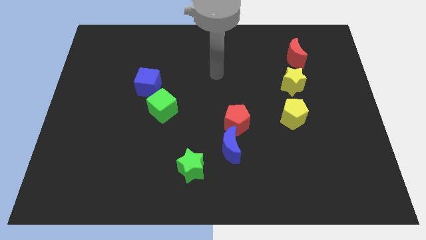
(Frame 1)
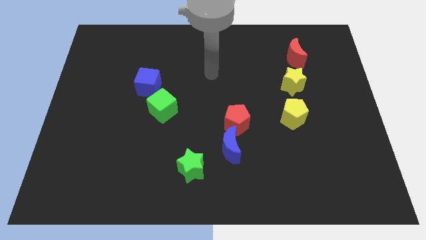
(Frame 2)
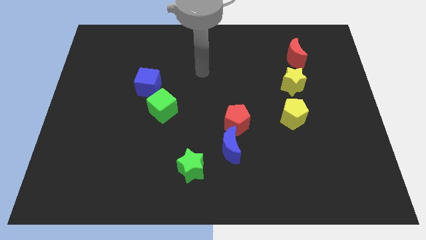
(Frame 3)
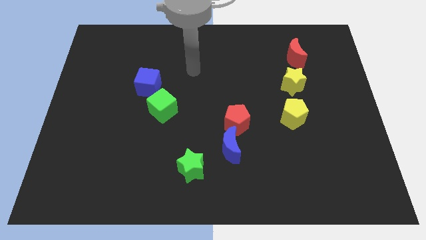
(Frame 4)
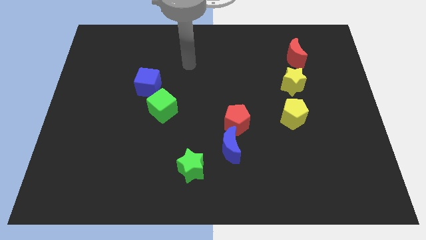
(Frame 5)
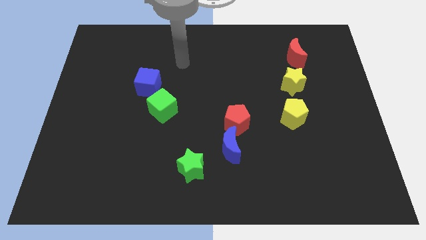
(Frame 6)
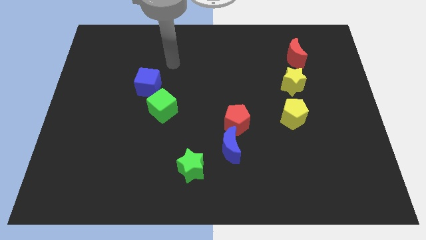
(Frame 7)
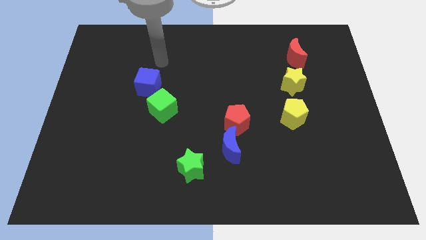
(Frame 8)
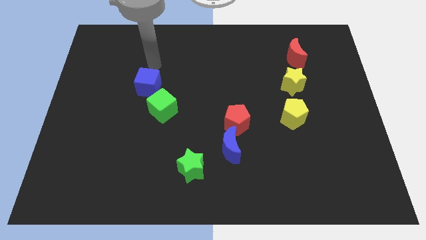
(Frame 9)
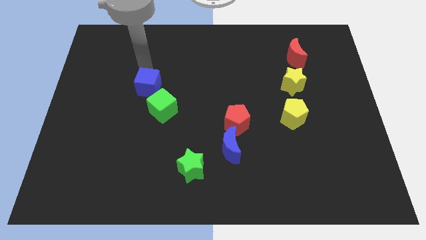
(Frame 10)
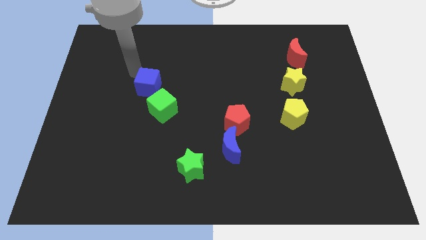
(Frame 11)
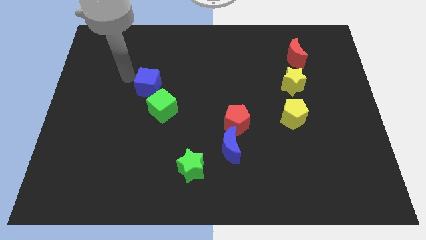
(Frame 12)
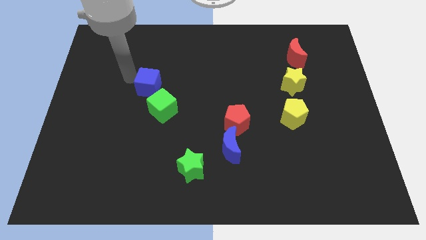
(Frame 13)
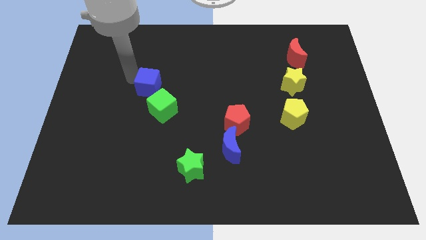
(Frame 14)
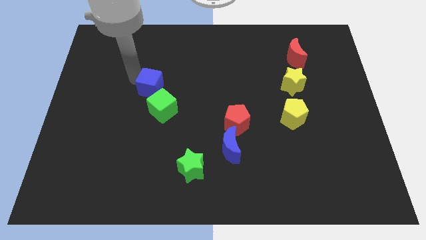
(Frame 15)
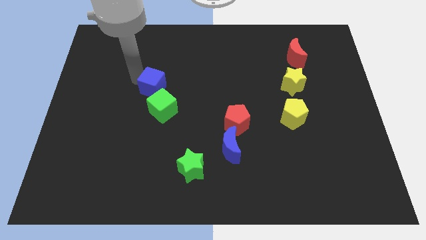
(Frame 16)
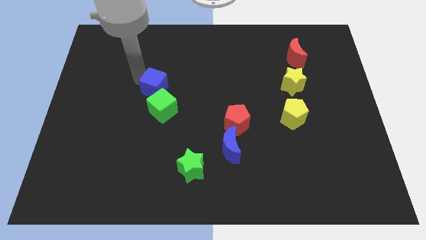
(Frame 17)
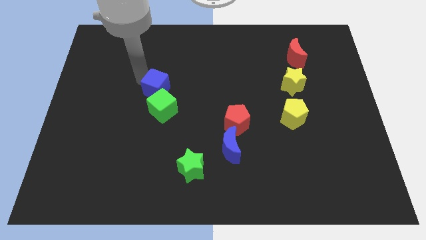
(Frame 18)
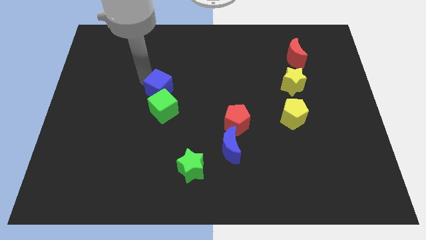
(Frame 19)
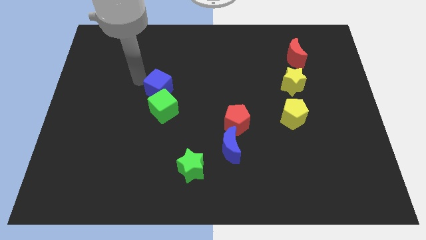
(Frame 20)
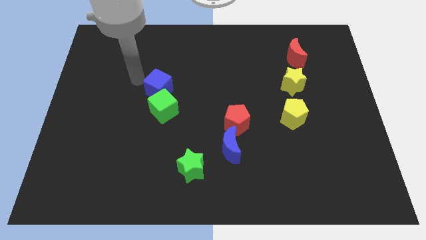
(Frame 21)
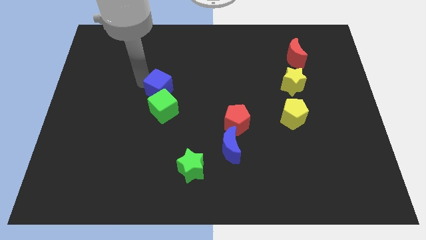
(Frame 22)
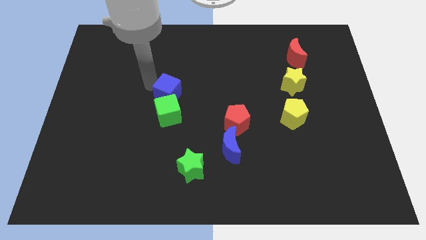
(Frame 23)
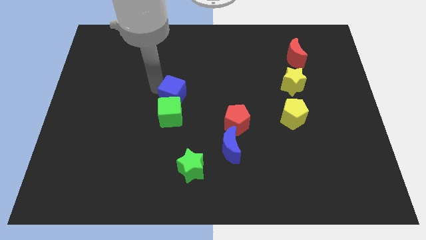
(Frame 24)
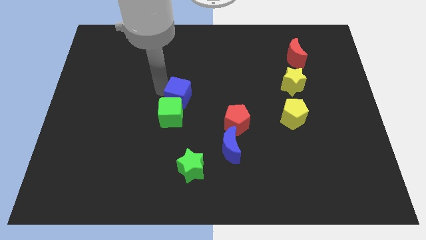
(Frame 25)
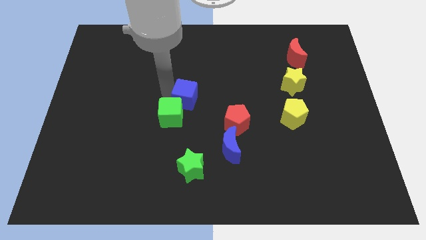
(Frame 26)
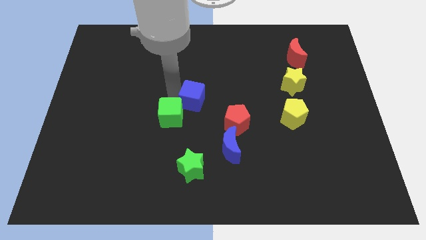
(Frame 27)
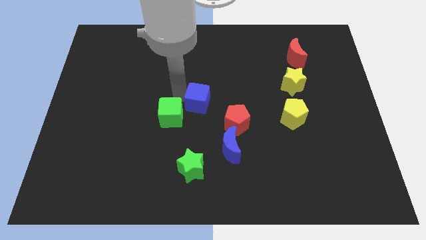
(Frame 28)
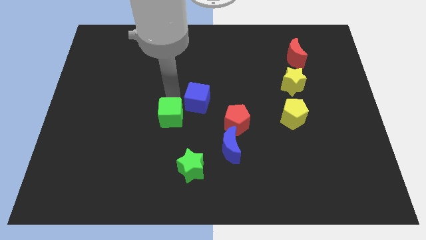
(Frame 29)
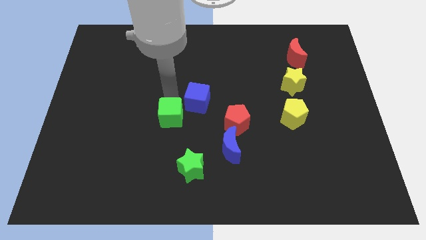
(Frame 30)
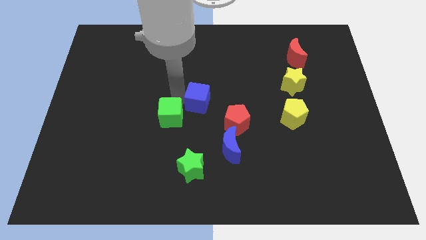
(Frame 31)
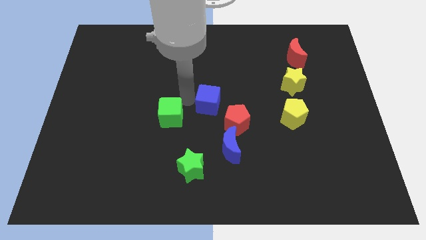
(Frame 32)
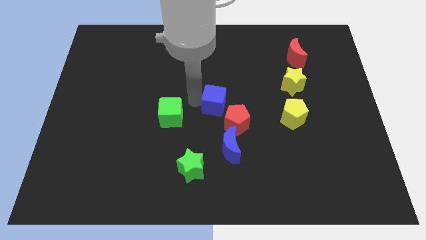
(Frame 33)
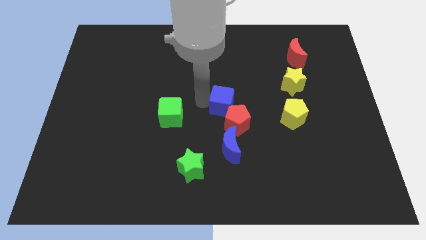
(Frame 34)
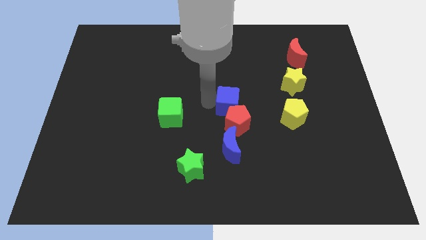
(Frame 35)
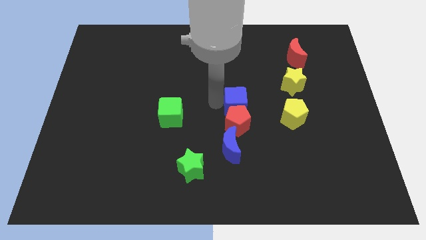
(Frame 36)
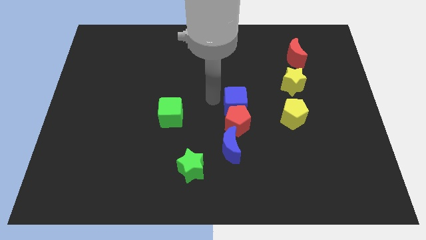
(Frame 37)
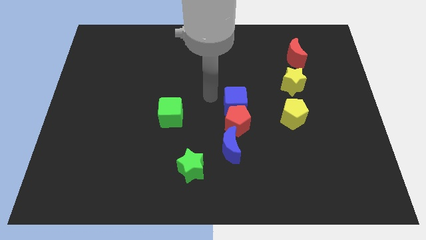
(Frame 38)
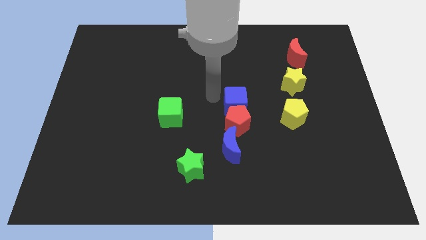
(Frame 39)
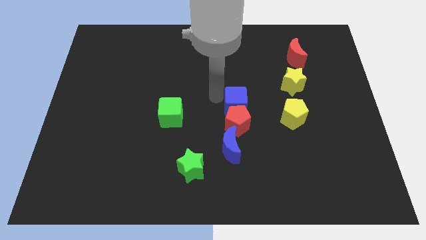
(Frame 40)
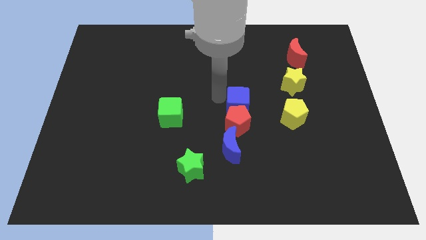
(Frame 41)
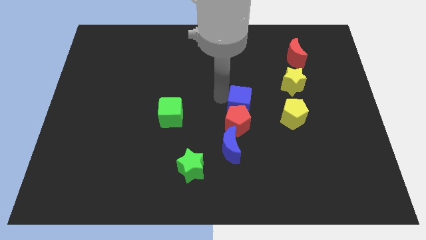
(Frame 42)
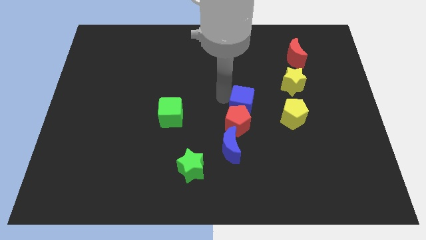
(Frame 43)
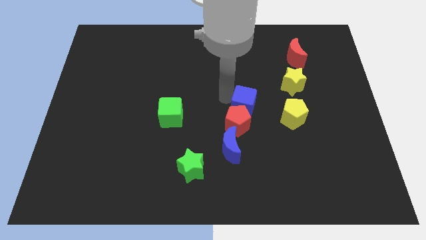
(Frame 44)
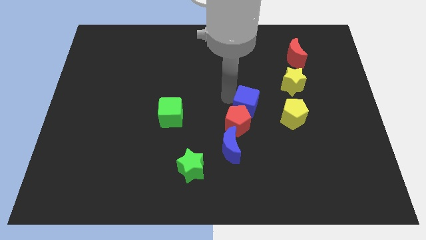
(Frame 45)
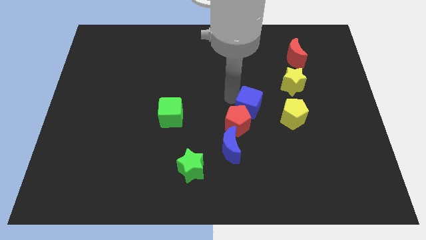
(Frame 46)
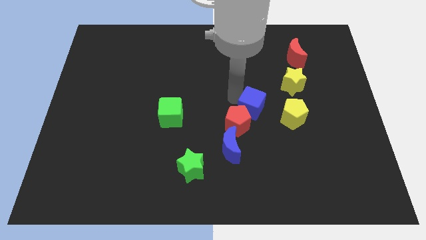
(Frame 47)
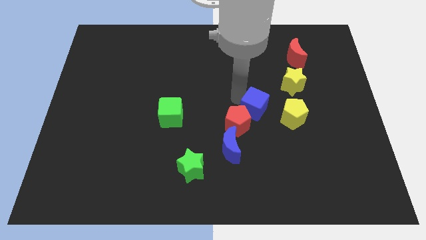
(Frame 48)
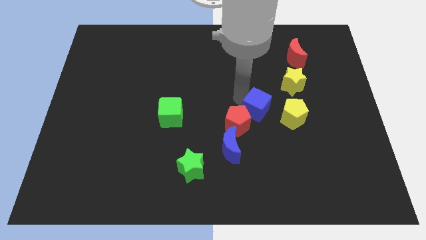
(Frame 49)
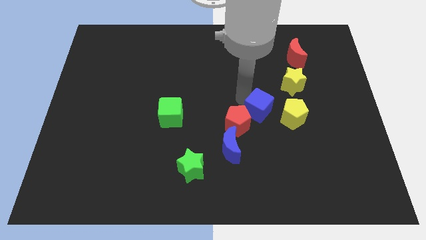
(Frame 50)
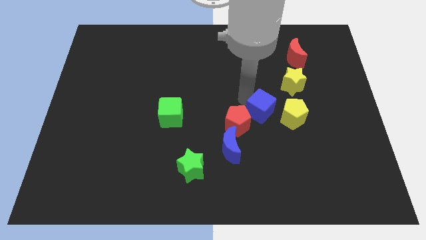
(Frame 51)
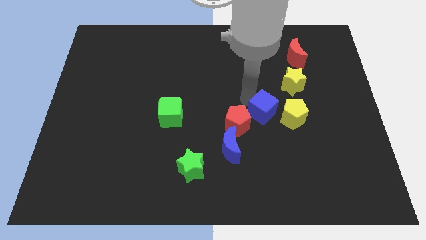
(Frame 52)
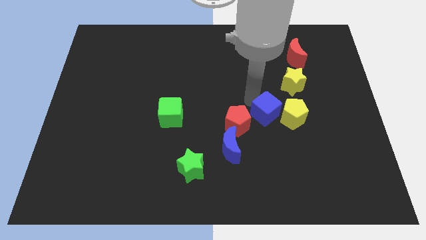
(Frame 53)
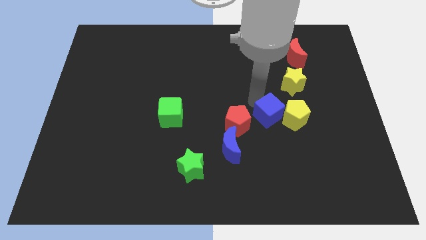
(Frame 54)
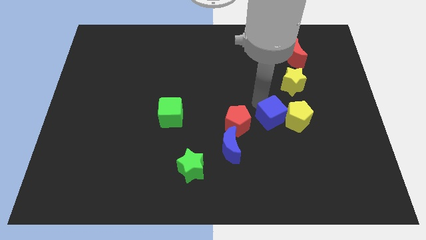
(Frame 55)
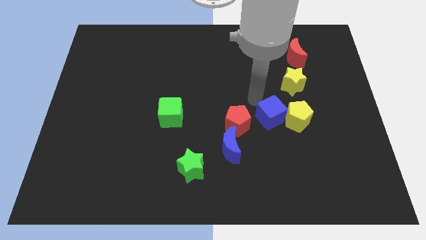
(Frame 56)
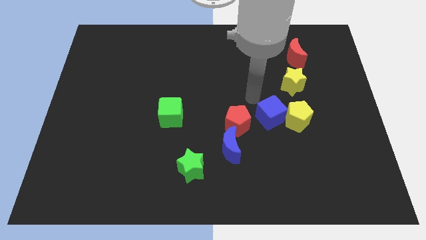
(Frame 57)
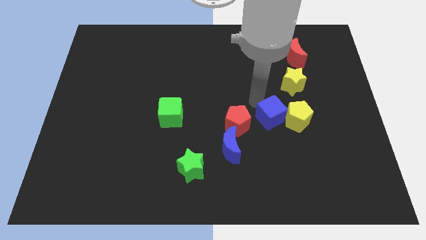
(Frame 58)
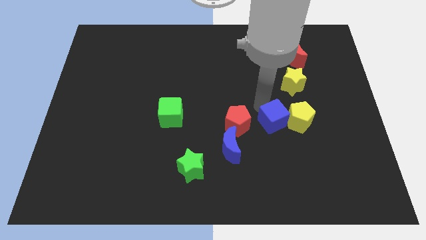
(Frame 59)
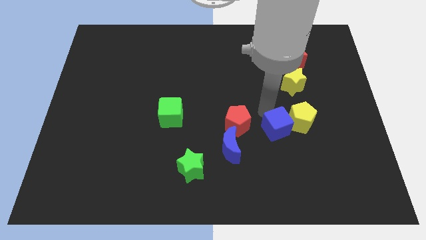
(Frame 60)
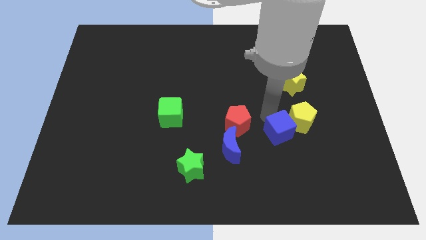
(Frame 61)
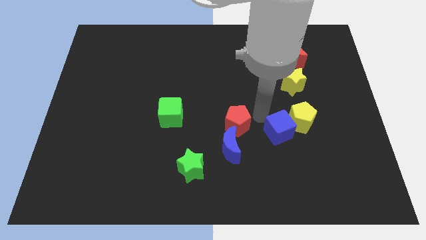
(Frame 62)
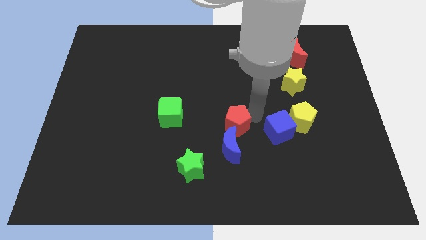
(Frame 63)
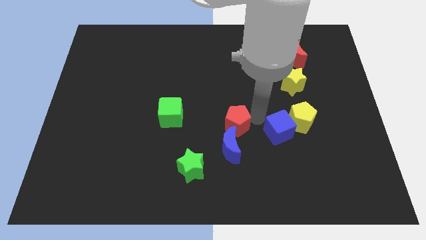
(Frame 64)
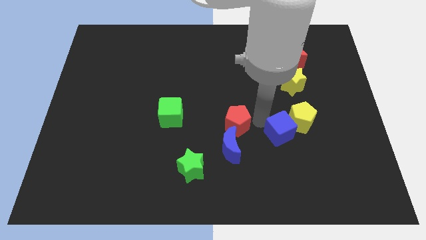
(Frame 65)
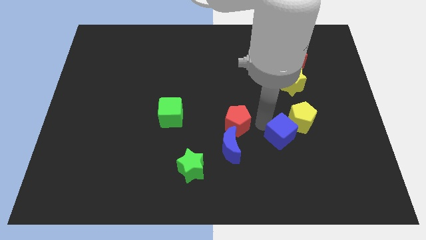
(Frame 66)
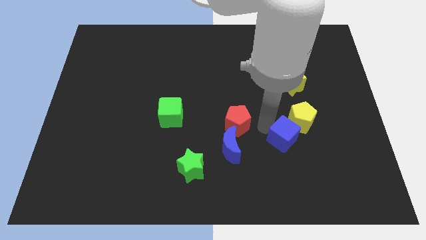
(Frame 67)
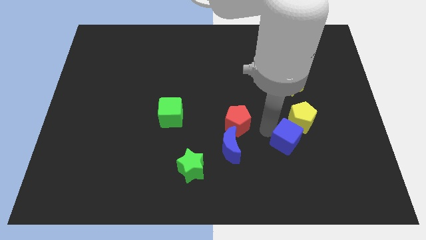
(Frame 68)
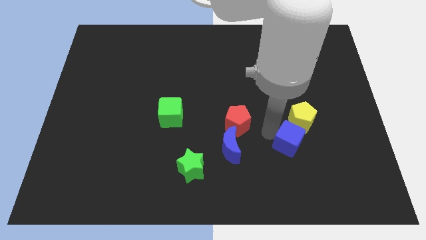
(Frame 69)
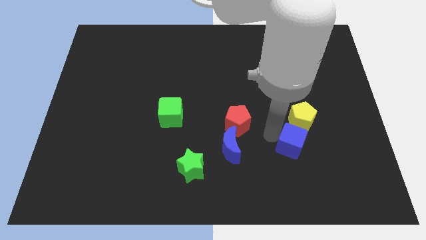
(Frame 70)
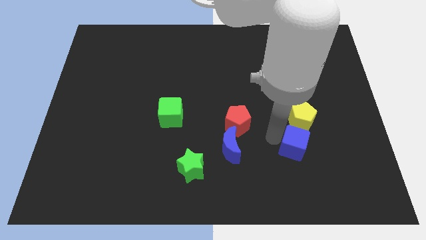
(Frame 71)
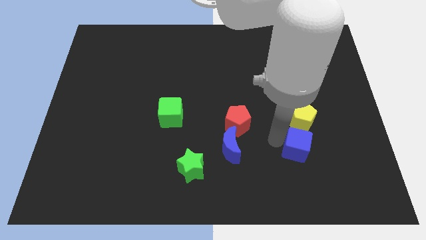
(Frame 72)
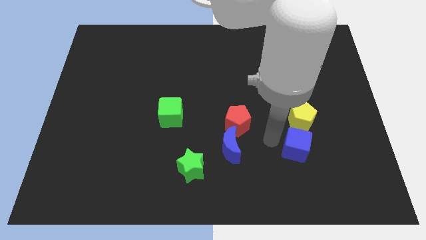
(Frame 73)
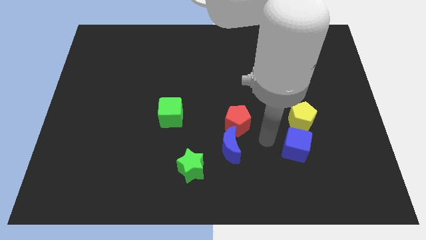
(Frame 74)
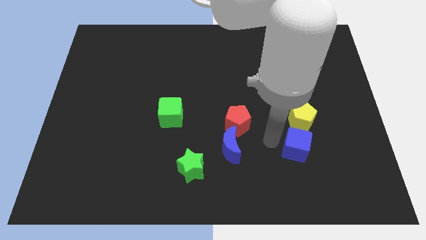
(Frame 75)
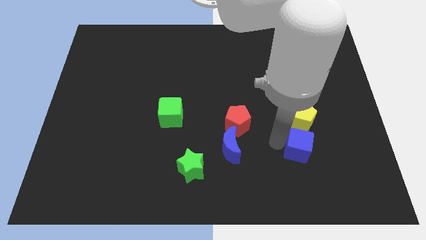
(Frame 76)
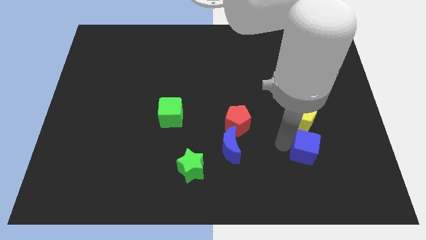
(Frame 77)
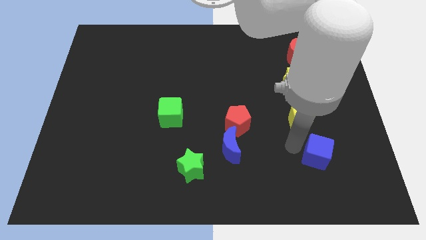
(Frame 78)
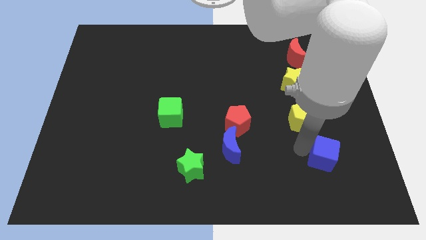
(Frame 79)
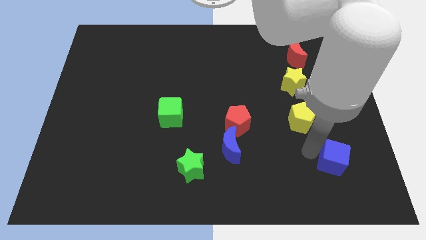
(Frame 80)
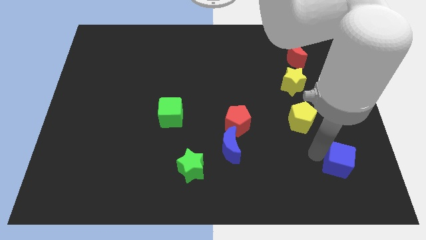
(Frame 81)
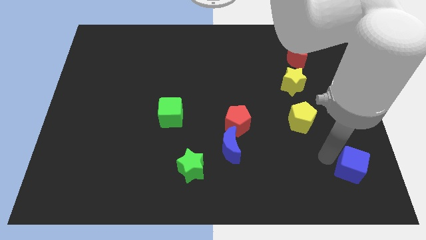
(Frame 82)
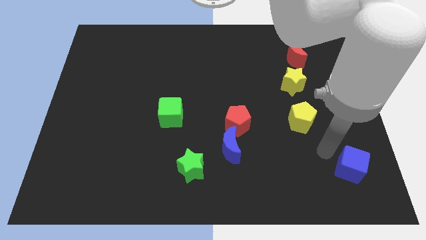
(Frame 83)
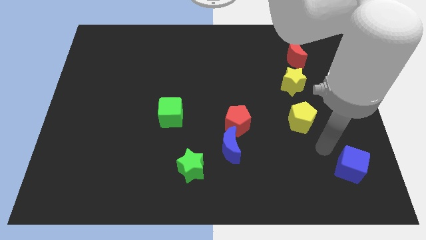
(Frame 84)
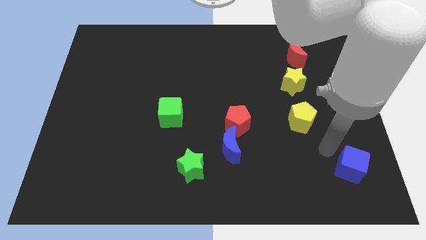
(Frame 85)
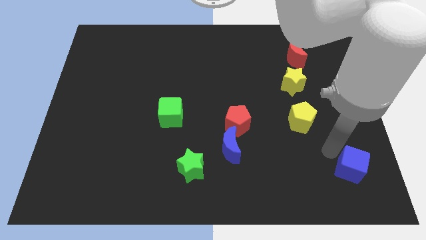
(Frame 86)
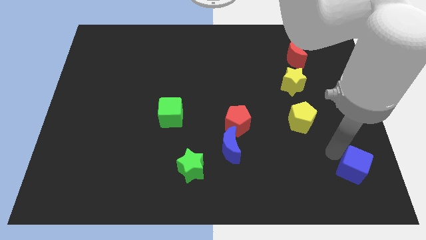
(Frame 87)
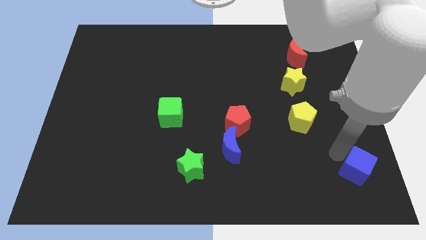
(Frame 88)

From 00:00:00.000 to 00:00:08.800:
move the blue cube to the bottom right
